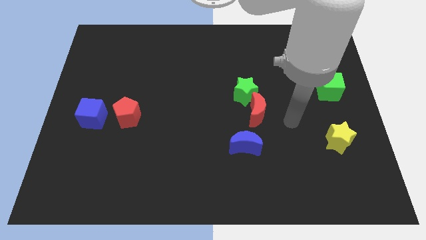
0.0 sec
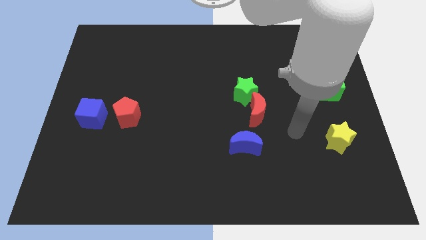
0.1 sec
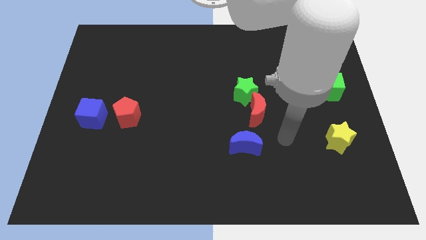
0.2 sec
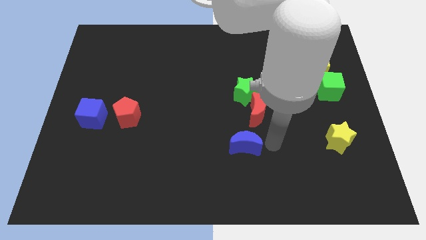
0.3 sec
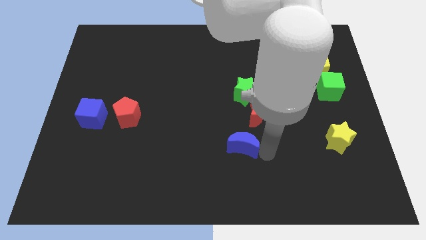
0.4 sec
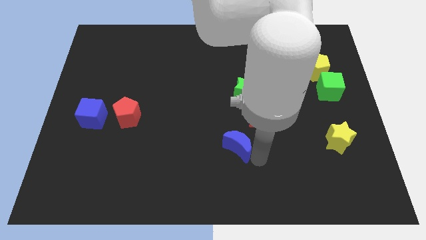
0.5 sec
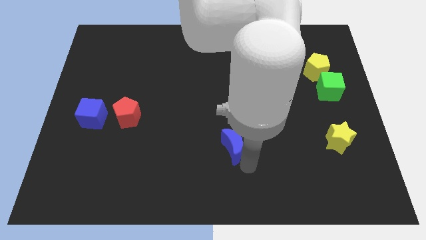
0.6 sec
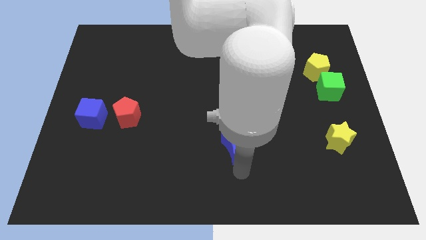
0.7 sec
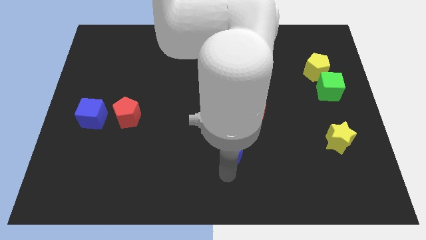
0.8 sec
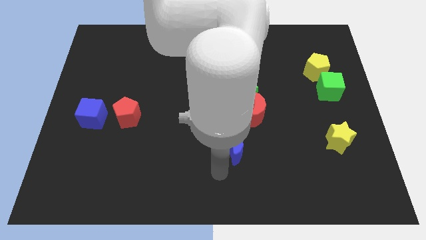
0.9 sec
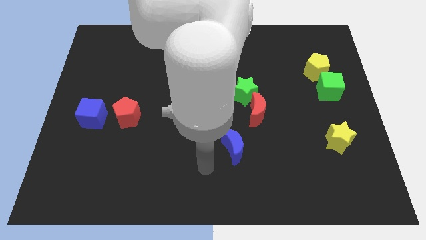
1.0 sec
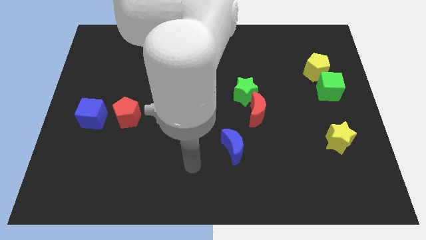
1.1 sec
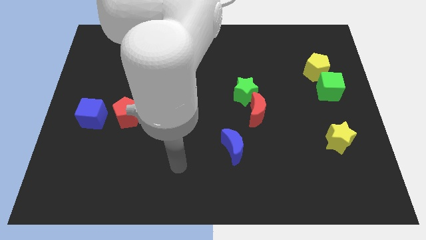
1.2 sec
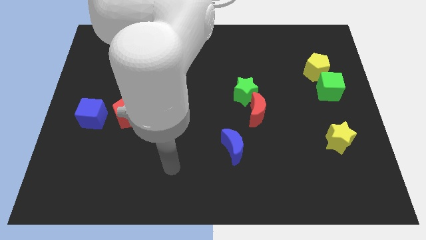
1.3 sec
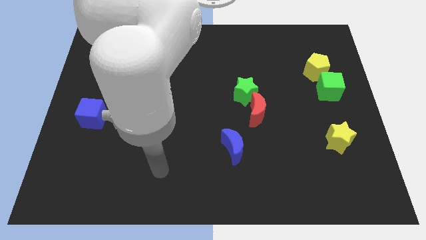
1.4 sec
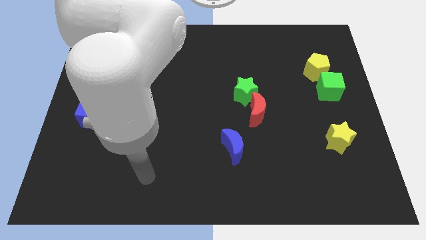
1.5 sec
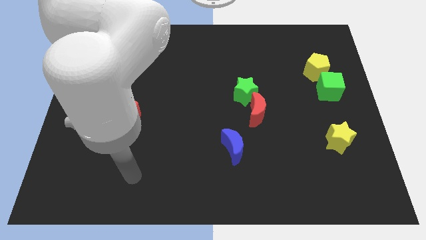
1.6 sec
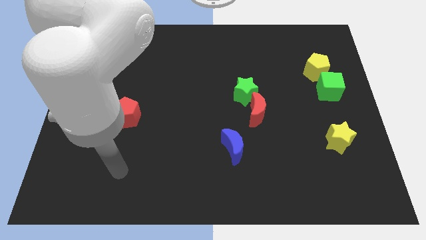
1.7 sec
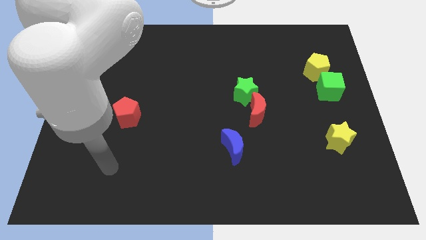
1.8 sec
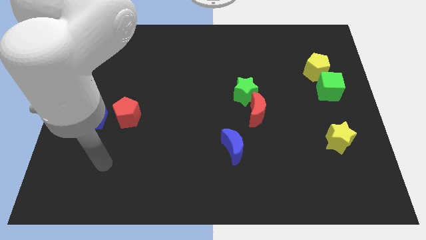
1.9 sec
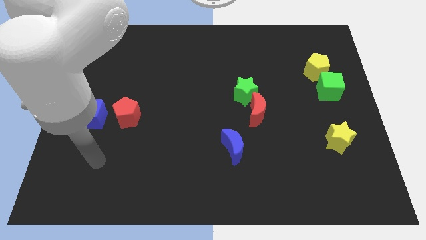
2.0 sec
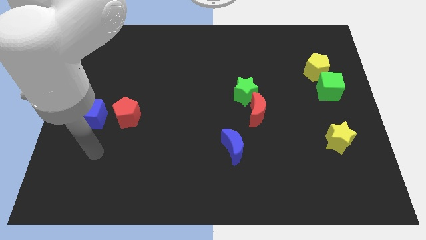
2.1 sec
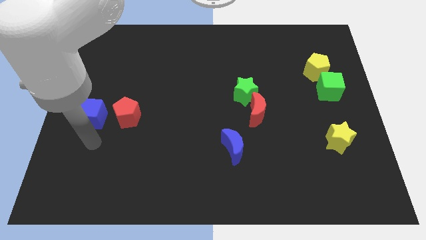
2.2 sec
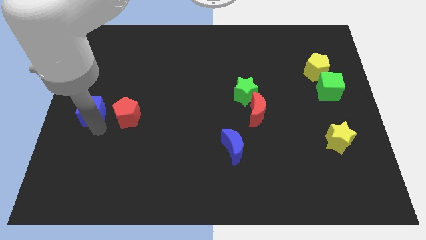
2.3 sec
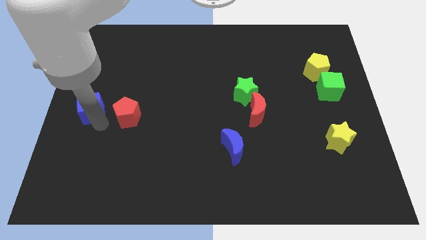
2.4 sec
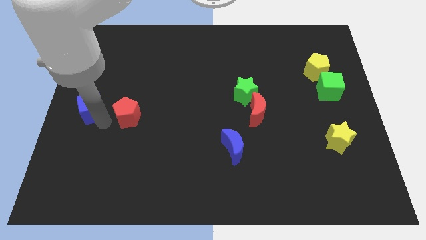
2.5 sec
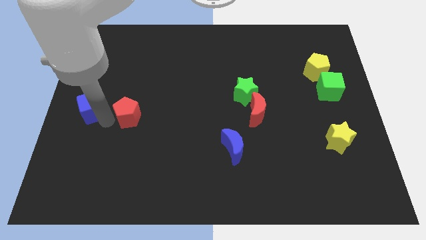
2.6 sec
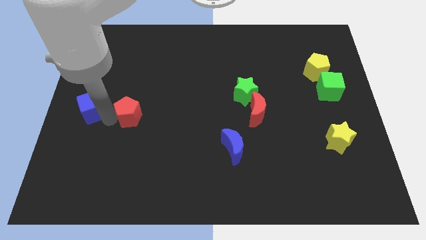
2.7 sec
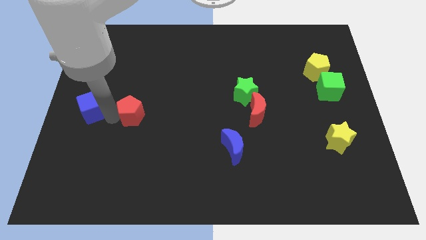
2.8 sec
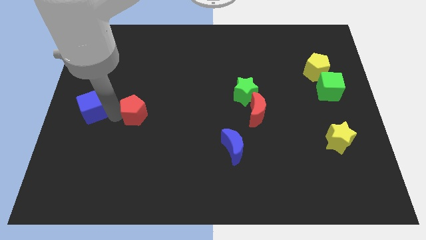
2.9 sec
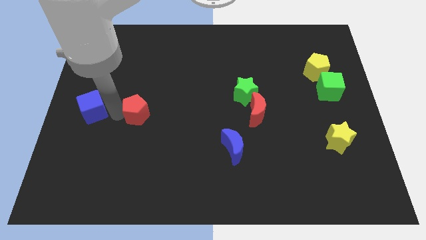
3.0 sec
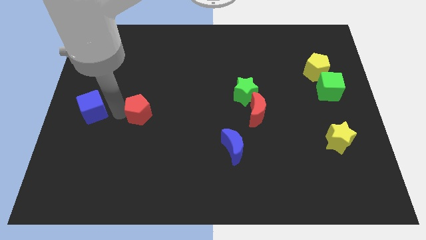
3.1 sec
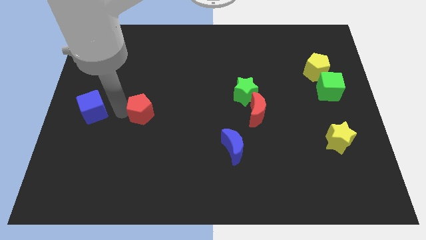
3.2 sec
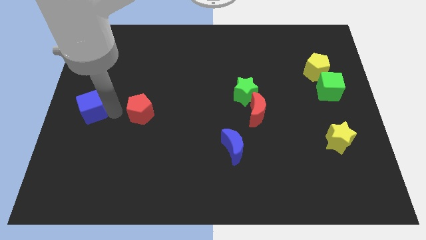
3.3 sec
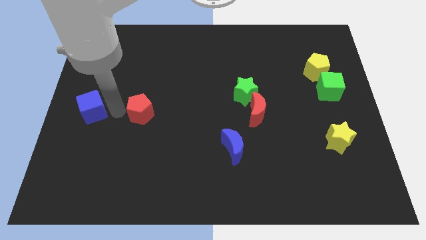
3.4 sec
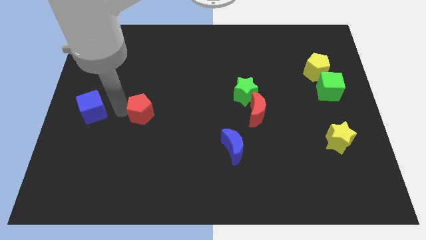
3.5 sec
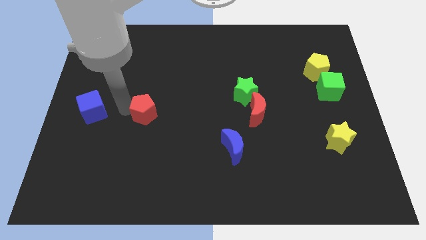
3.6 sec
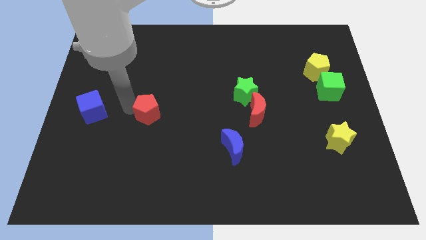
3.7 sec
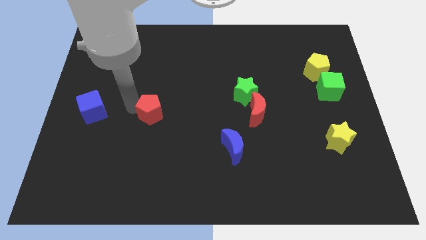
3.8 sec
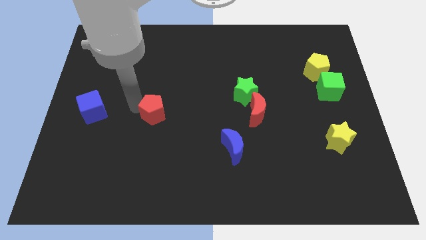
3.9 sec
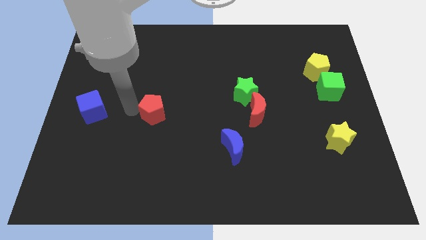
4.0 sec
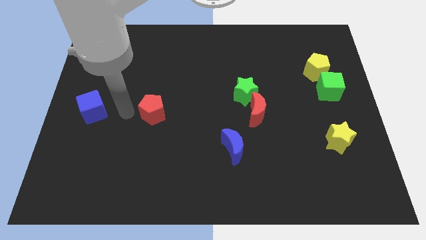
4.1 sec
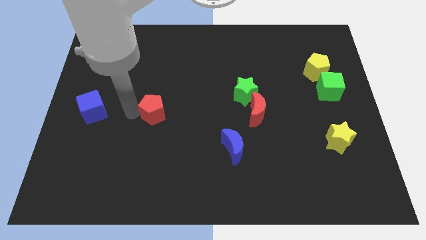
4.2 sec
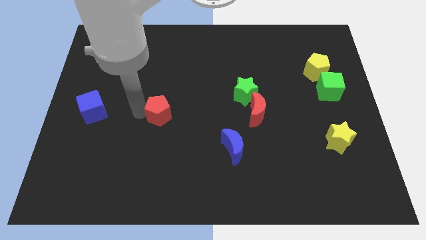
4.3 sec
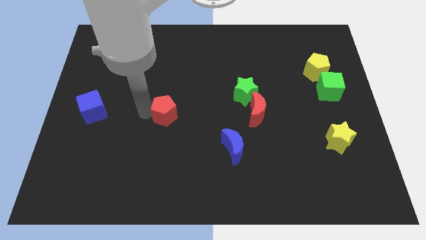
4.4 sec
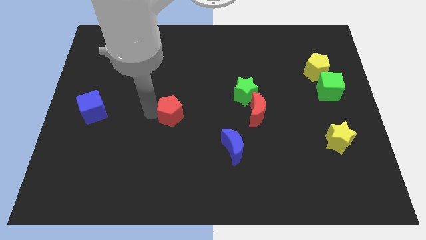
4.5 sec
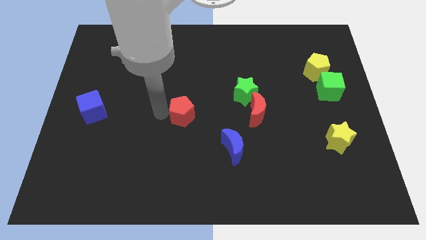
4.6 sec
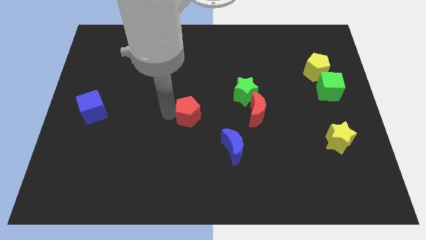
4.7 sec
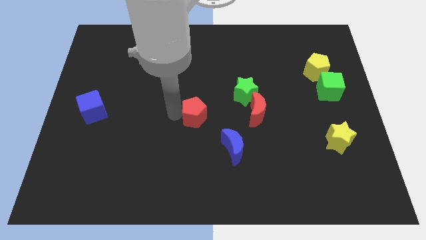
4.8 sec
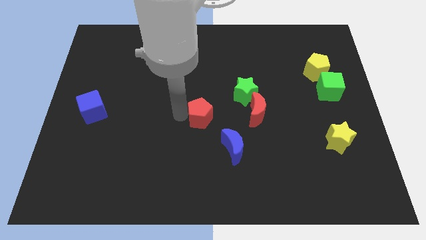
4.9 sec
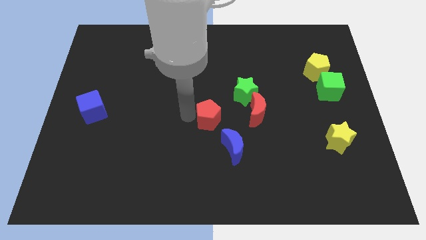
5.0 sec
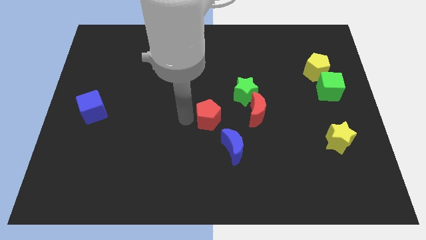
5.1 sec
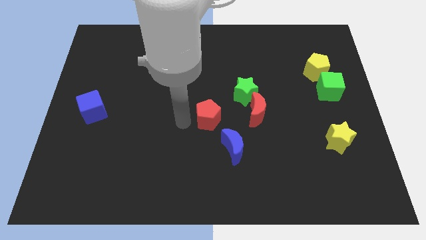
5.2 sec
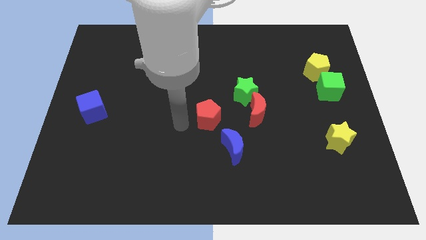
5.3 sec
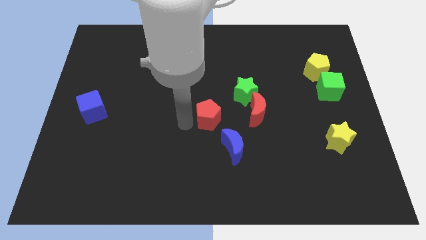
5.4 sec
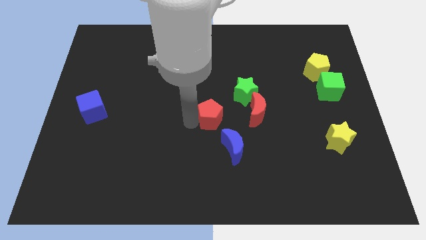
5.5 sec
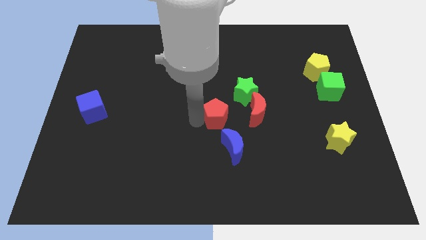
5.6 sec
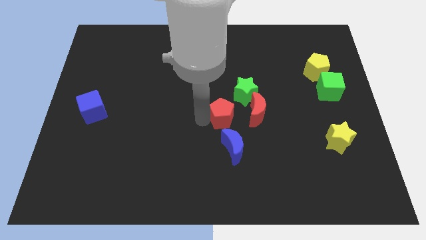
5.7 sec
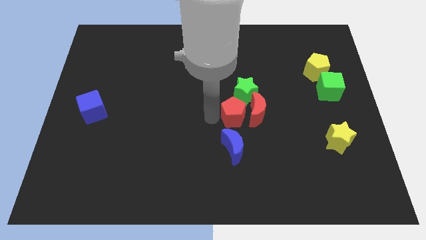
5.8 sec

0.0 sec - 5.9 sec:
put the red pentagon towards the red moon

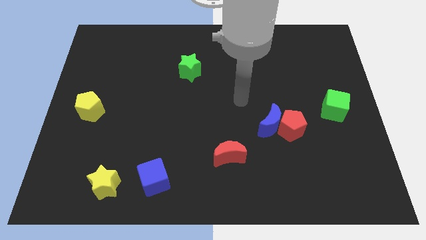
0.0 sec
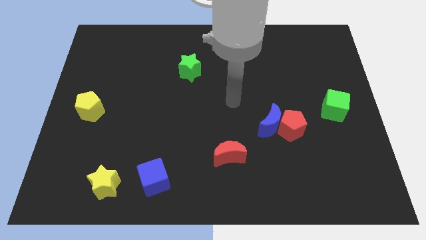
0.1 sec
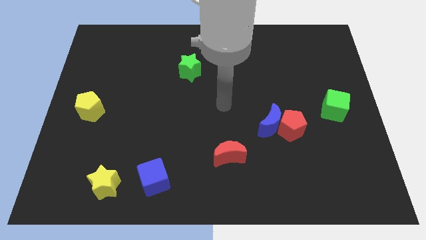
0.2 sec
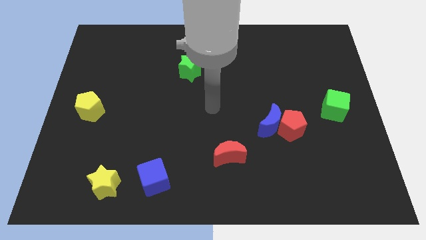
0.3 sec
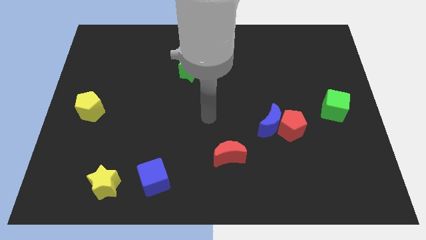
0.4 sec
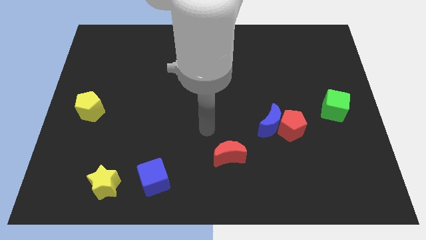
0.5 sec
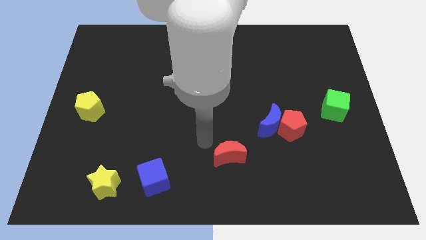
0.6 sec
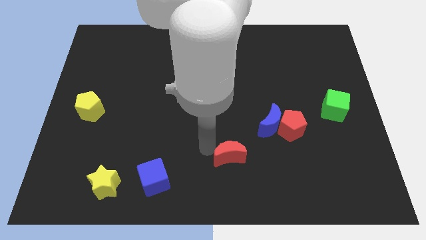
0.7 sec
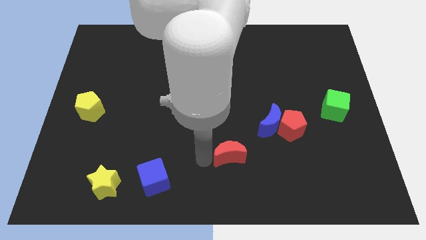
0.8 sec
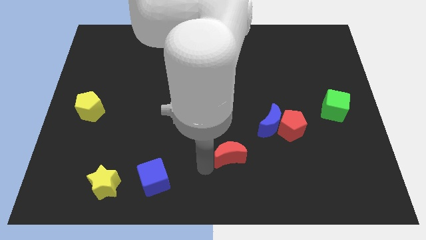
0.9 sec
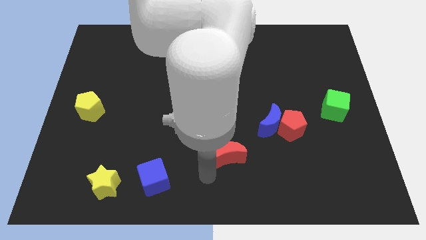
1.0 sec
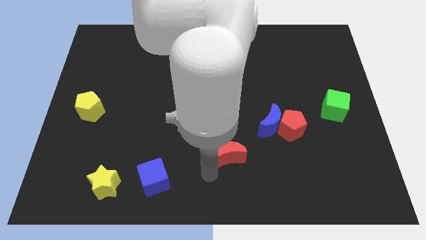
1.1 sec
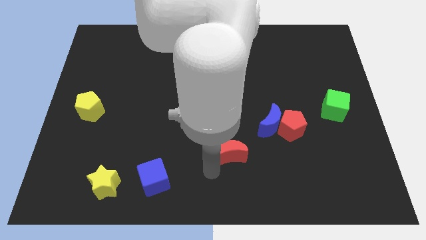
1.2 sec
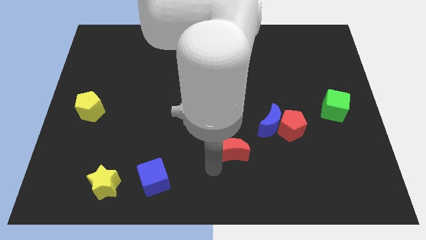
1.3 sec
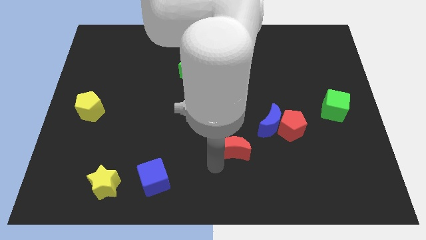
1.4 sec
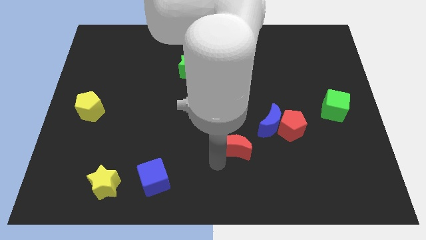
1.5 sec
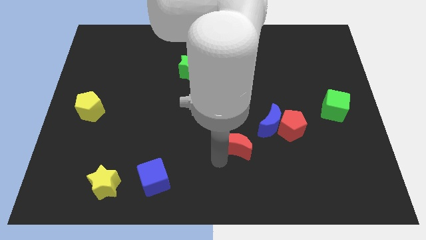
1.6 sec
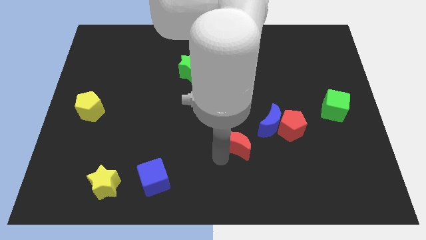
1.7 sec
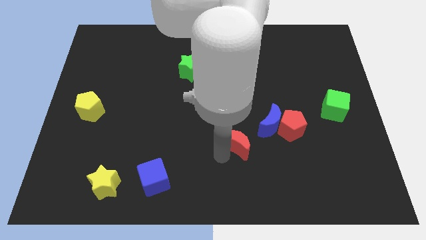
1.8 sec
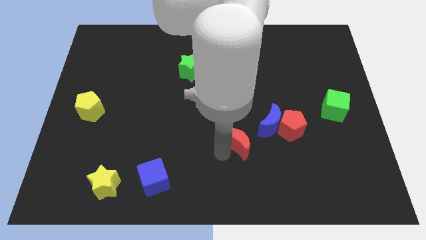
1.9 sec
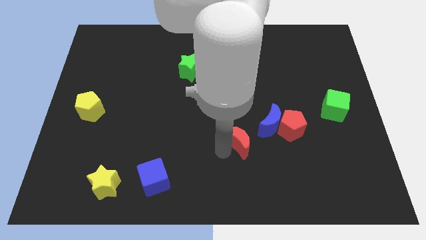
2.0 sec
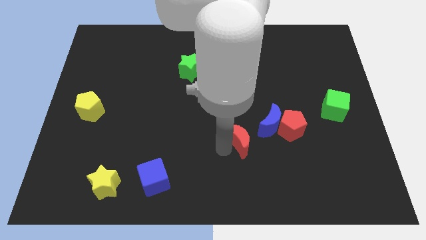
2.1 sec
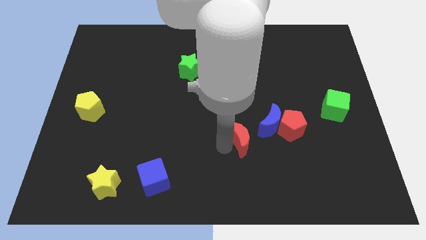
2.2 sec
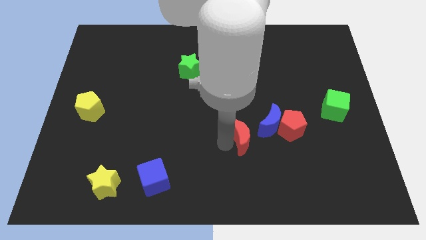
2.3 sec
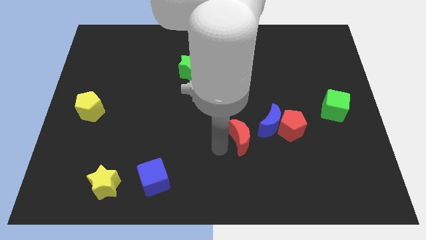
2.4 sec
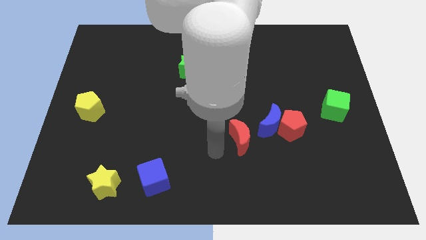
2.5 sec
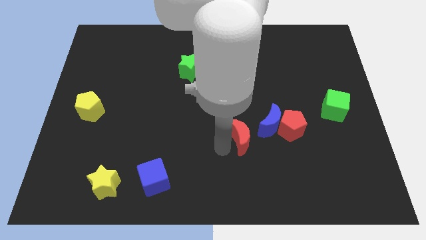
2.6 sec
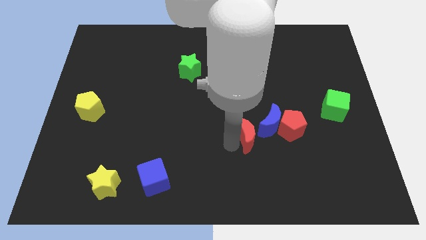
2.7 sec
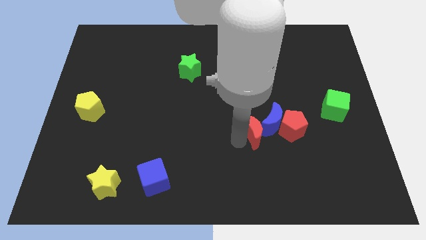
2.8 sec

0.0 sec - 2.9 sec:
move the red moon towards the blue moon
